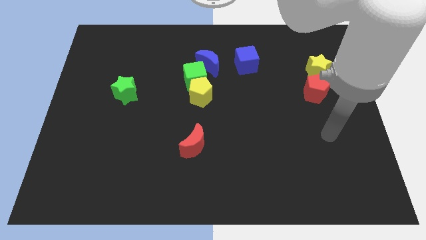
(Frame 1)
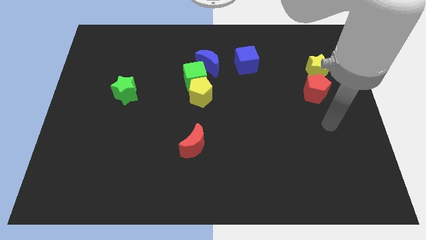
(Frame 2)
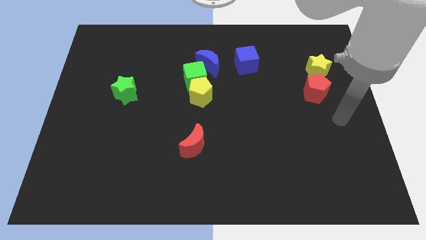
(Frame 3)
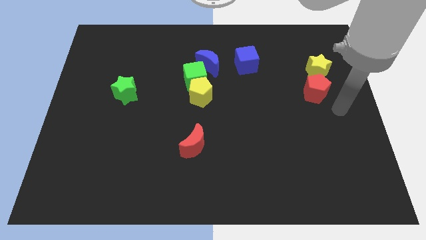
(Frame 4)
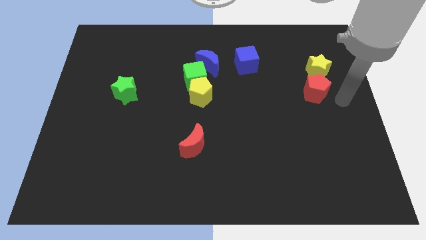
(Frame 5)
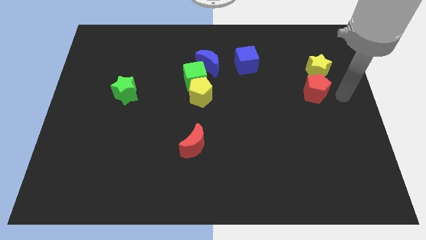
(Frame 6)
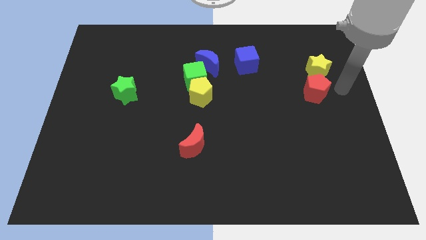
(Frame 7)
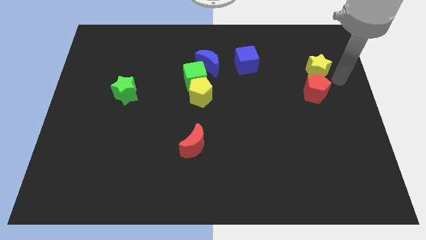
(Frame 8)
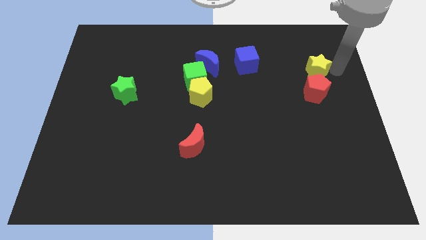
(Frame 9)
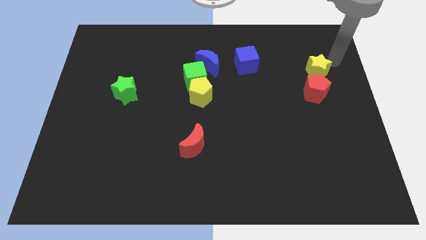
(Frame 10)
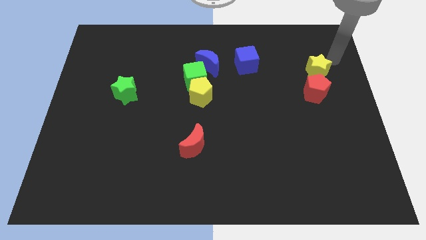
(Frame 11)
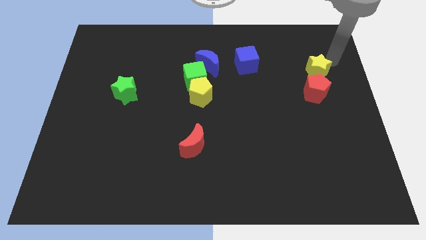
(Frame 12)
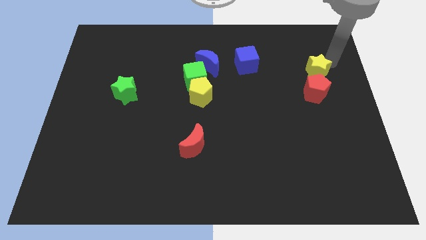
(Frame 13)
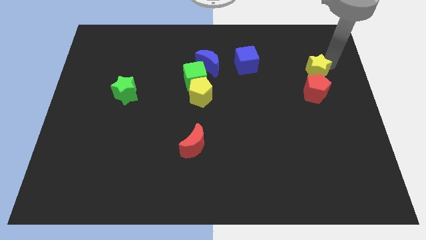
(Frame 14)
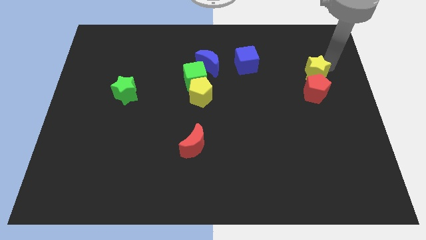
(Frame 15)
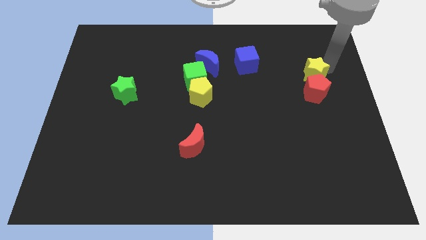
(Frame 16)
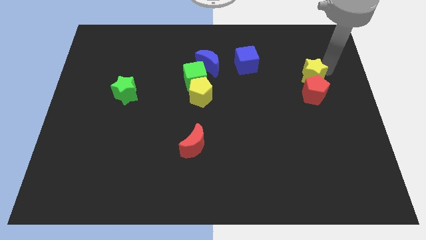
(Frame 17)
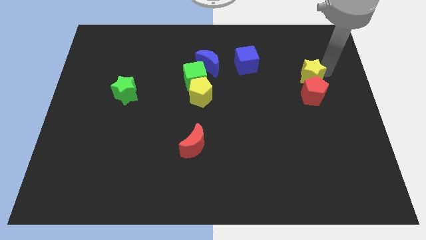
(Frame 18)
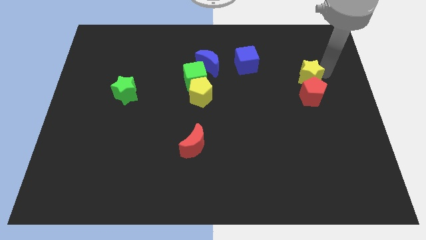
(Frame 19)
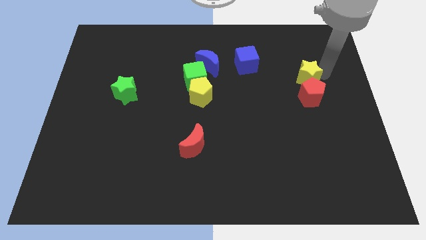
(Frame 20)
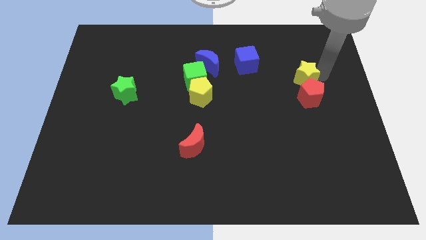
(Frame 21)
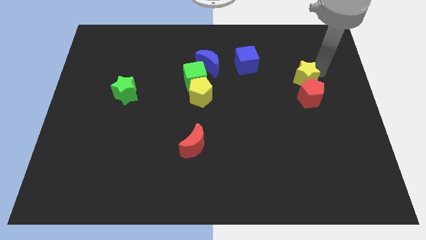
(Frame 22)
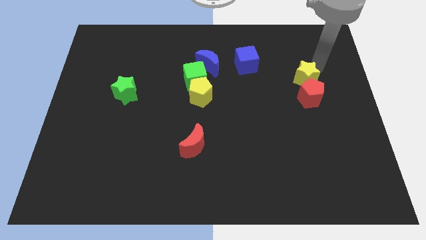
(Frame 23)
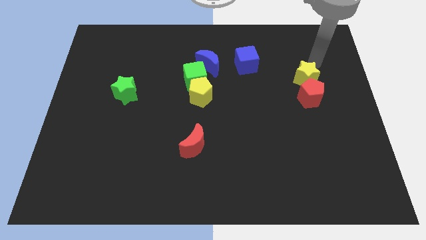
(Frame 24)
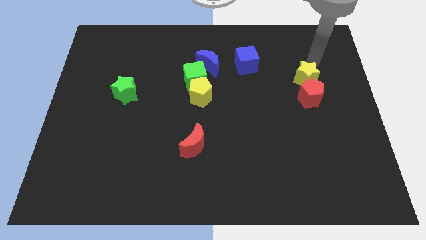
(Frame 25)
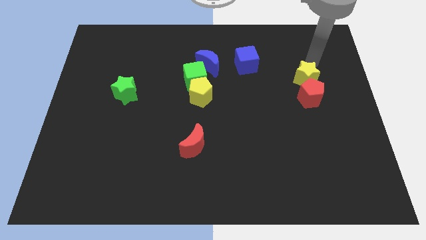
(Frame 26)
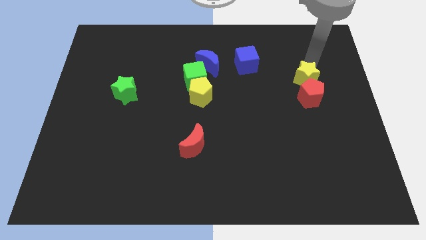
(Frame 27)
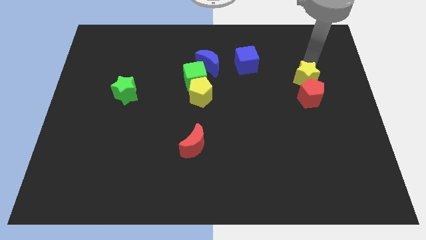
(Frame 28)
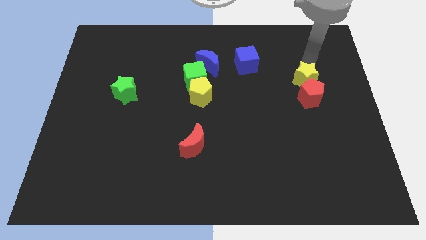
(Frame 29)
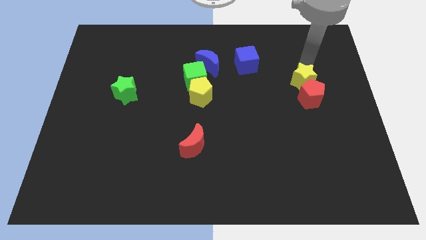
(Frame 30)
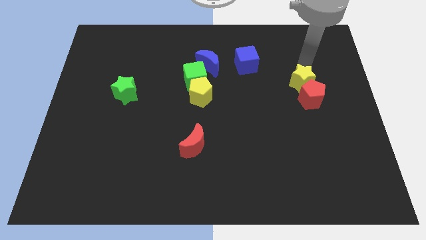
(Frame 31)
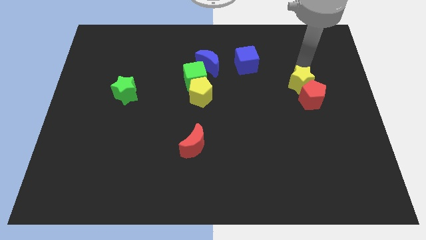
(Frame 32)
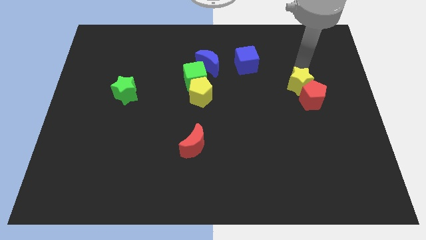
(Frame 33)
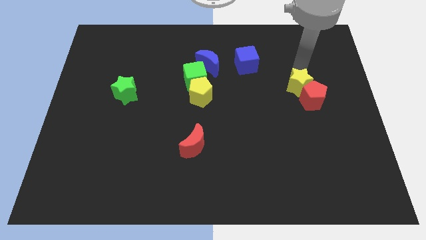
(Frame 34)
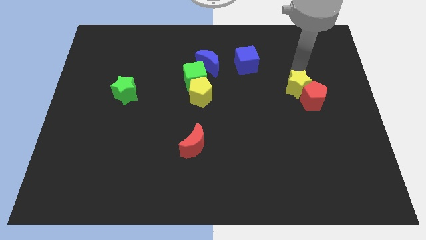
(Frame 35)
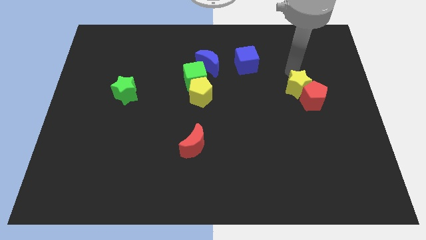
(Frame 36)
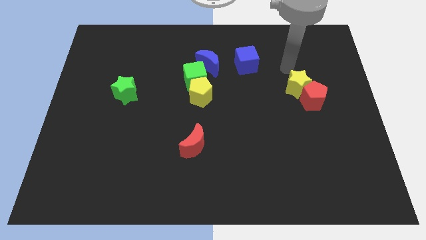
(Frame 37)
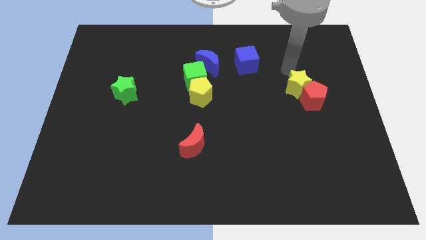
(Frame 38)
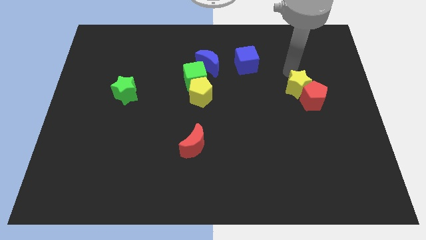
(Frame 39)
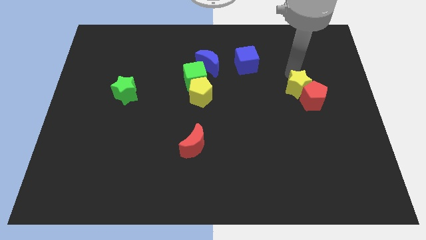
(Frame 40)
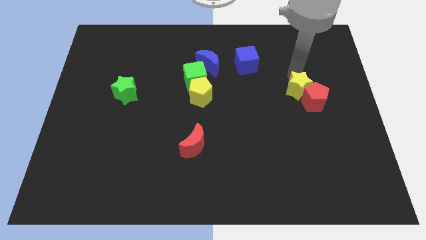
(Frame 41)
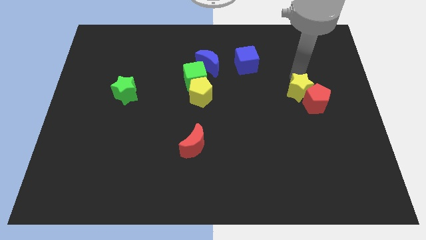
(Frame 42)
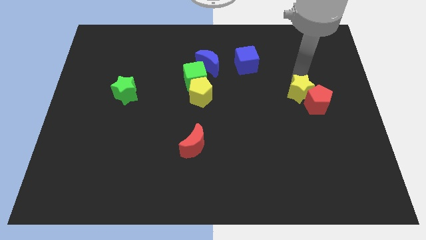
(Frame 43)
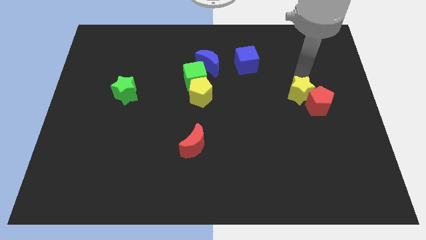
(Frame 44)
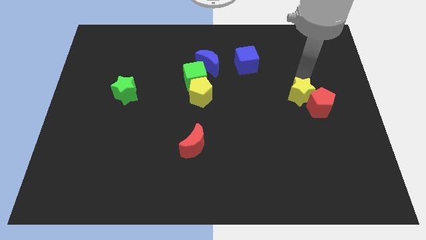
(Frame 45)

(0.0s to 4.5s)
move the yellow star downwards a little bit

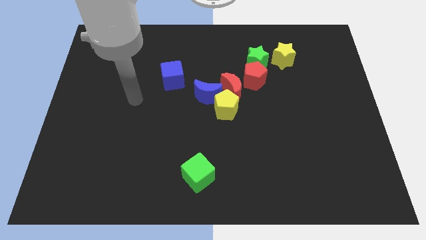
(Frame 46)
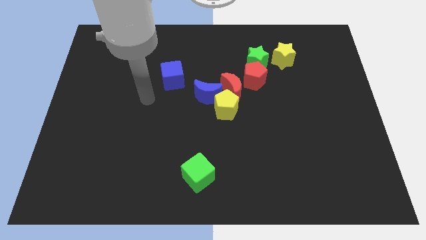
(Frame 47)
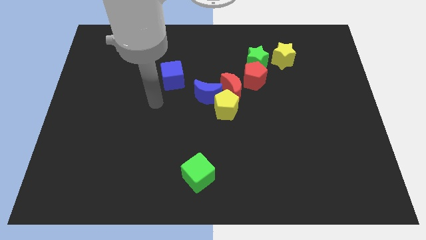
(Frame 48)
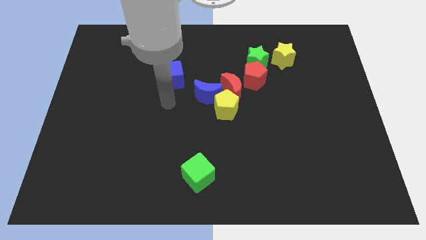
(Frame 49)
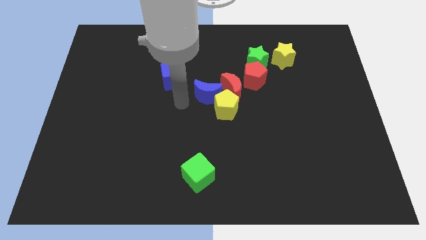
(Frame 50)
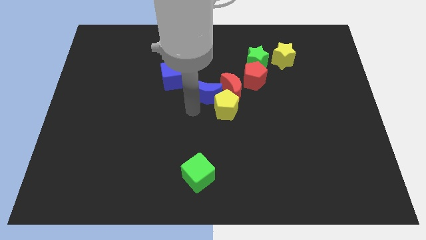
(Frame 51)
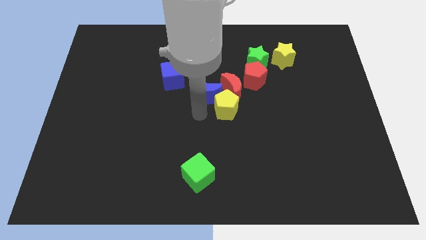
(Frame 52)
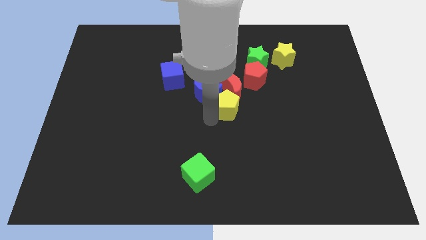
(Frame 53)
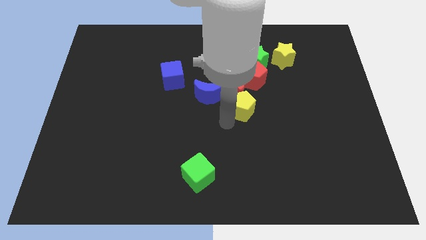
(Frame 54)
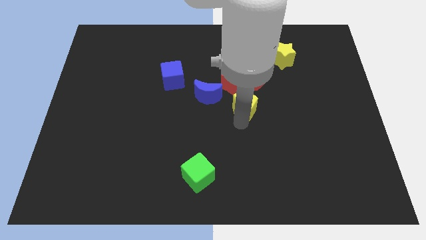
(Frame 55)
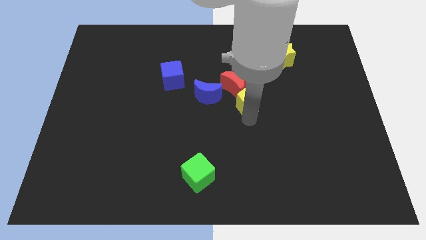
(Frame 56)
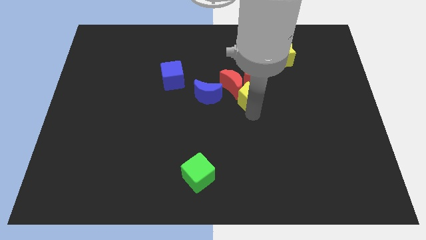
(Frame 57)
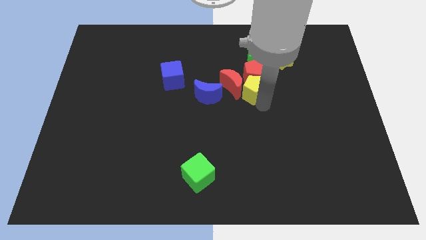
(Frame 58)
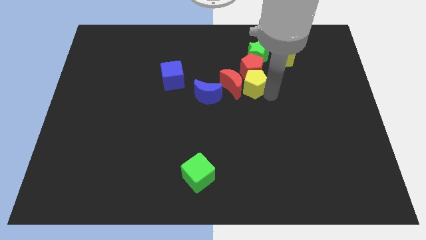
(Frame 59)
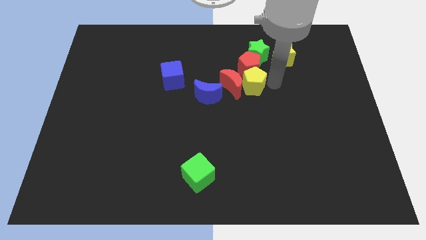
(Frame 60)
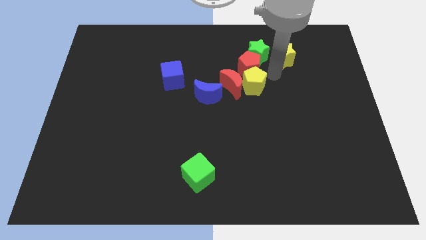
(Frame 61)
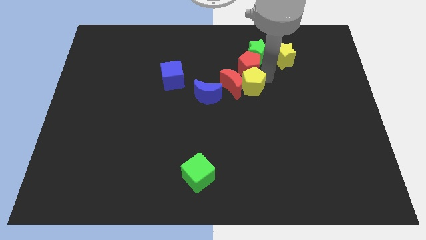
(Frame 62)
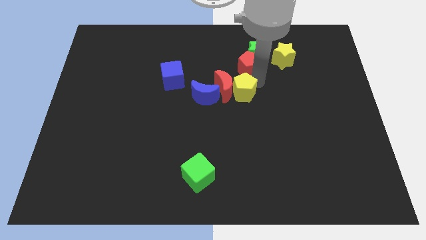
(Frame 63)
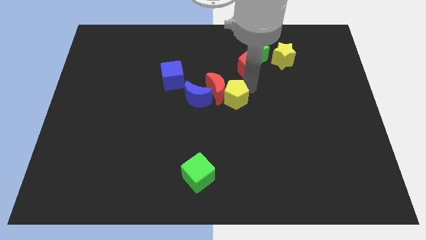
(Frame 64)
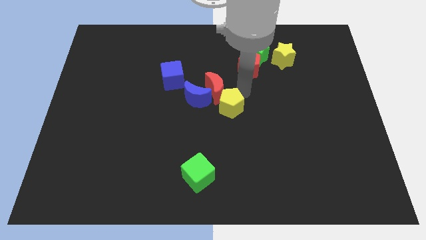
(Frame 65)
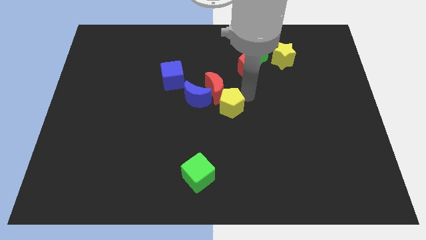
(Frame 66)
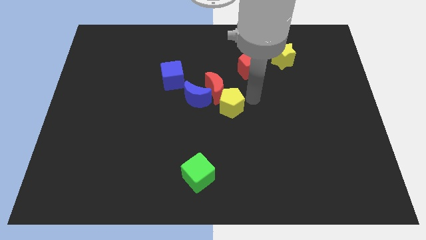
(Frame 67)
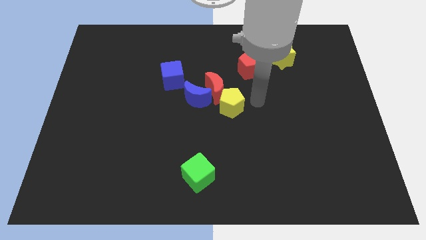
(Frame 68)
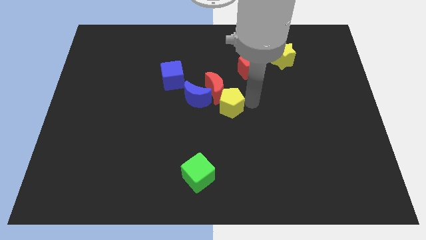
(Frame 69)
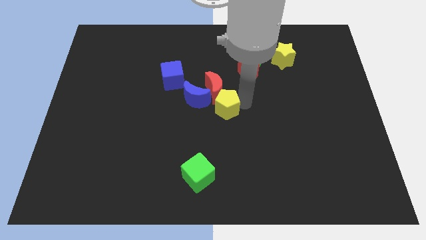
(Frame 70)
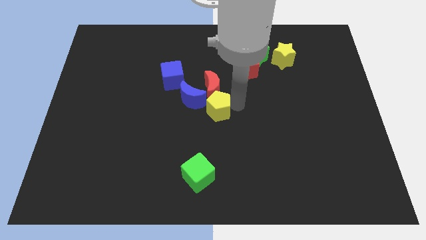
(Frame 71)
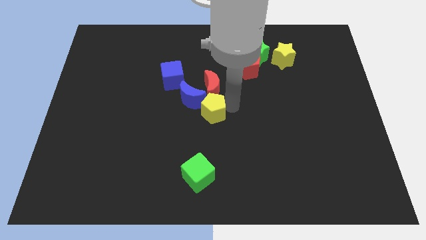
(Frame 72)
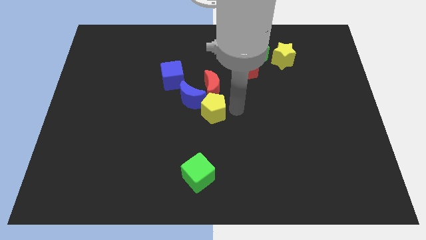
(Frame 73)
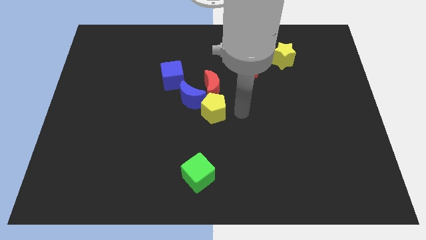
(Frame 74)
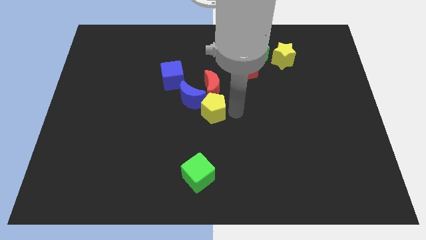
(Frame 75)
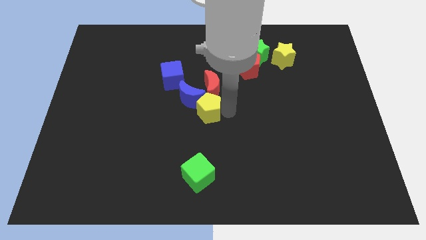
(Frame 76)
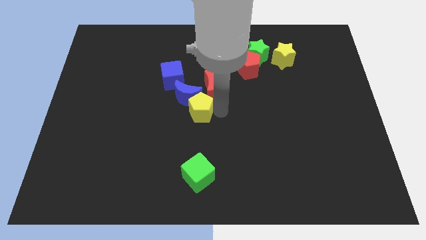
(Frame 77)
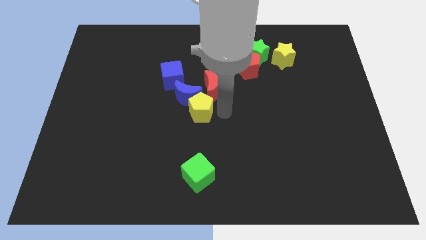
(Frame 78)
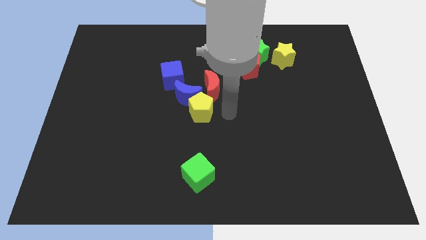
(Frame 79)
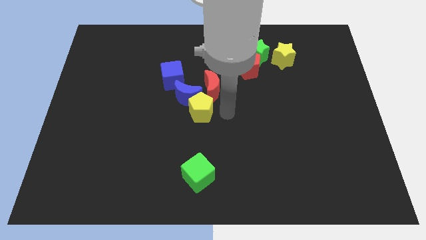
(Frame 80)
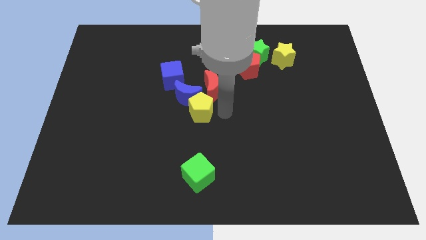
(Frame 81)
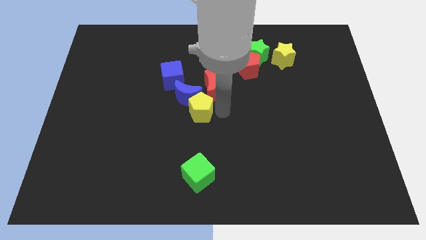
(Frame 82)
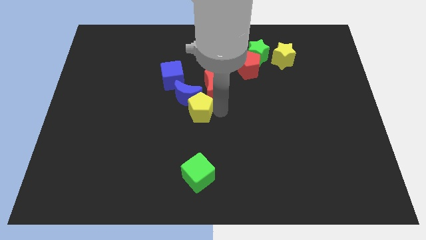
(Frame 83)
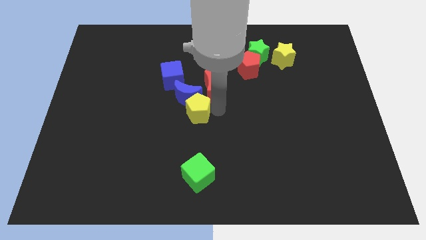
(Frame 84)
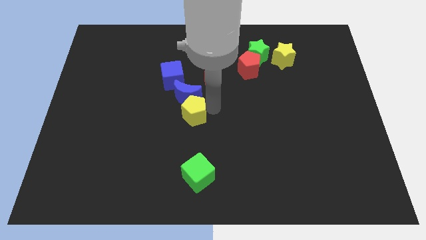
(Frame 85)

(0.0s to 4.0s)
move the yellow pentagon left a bit
